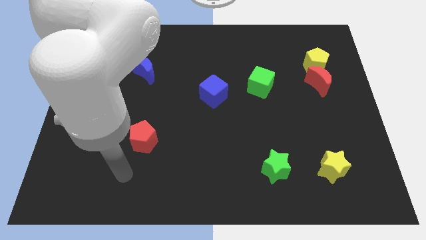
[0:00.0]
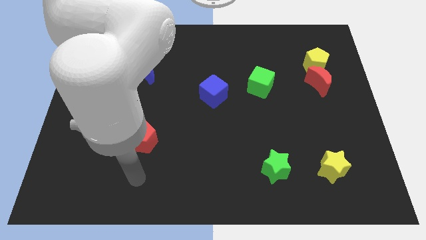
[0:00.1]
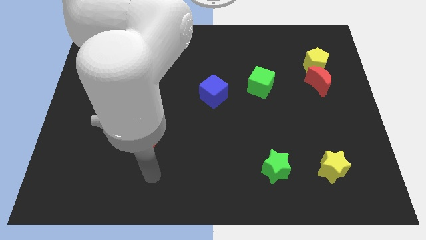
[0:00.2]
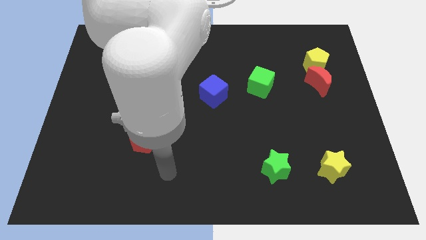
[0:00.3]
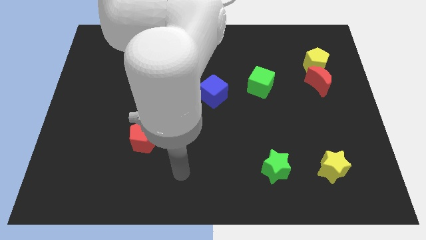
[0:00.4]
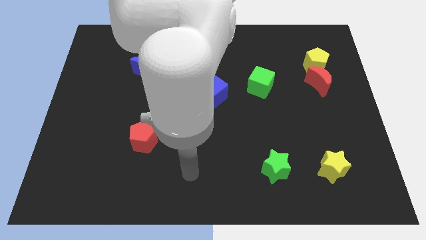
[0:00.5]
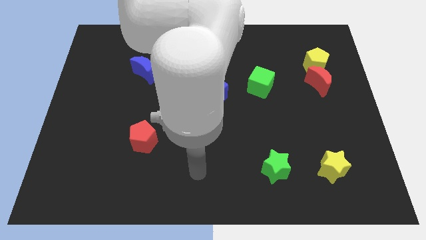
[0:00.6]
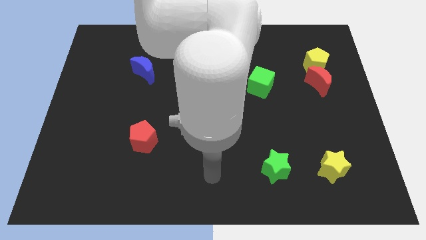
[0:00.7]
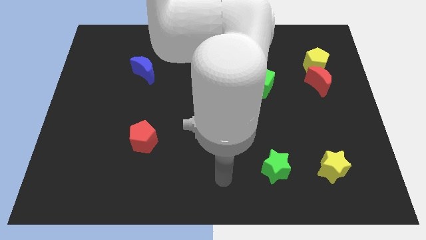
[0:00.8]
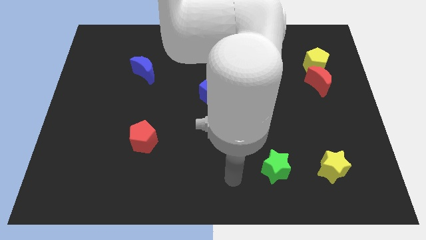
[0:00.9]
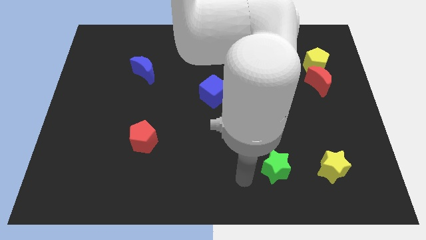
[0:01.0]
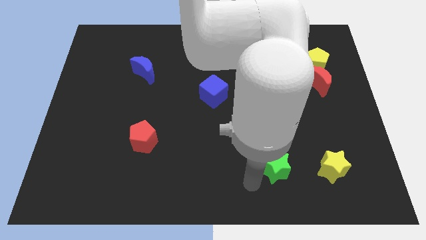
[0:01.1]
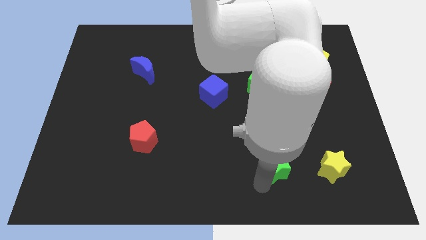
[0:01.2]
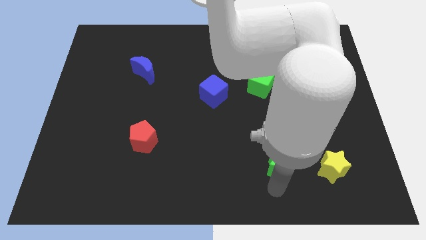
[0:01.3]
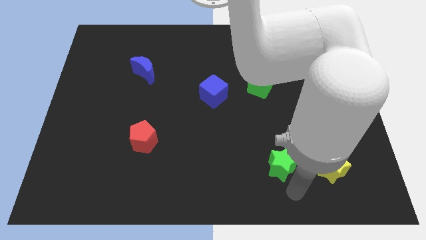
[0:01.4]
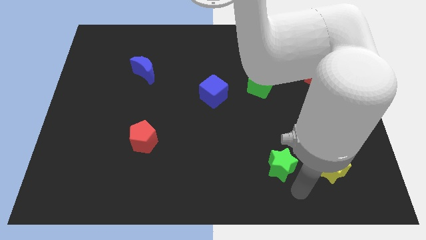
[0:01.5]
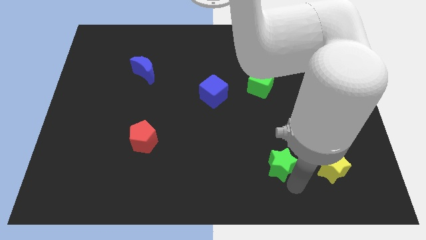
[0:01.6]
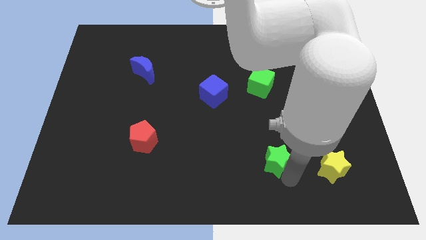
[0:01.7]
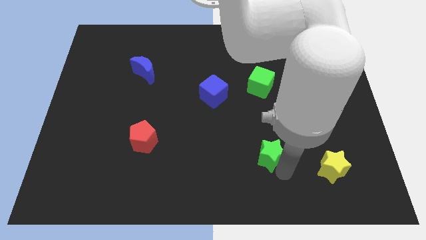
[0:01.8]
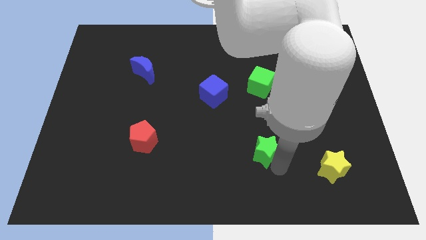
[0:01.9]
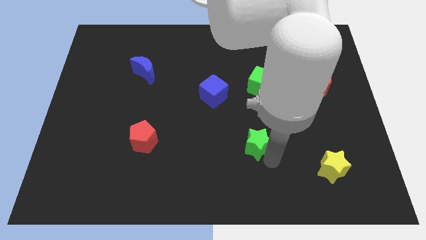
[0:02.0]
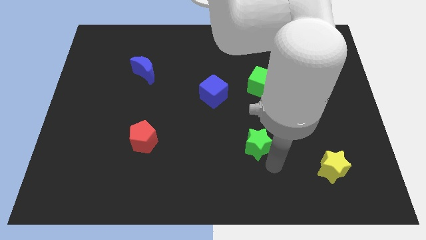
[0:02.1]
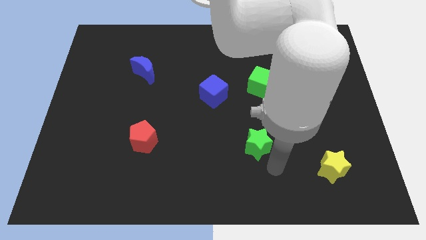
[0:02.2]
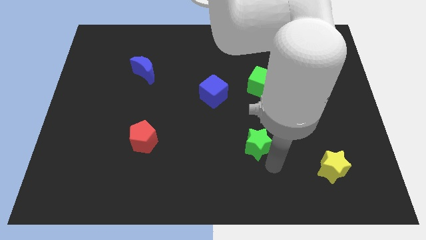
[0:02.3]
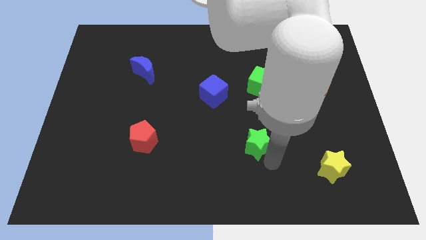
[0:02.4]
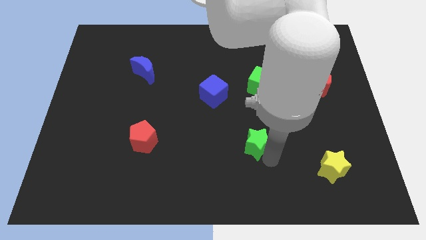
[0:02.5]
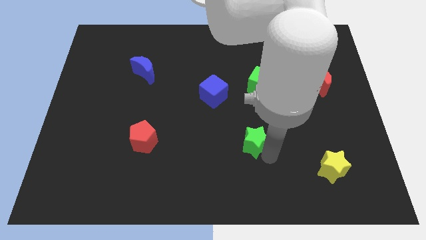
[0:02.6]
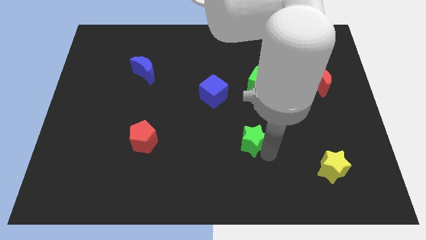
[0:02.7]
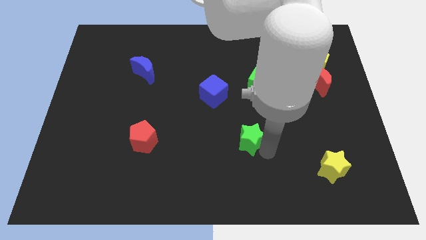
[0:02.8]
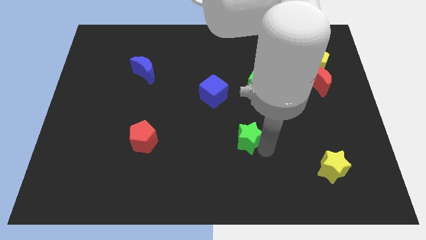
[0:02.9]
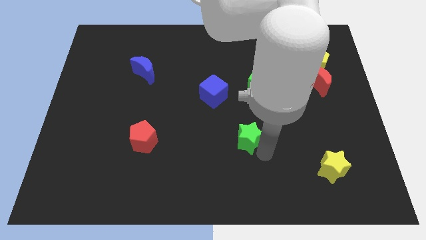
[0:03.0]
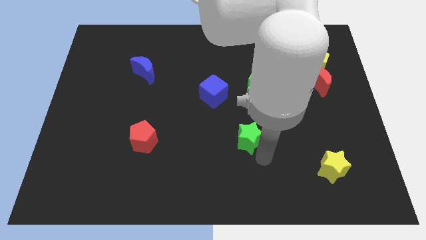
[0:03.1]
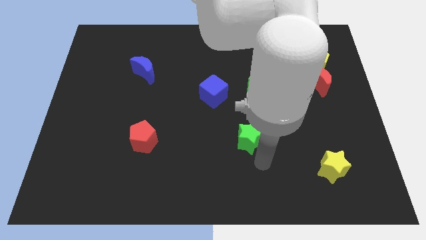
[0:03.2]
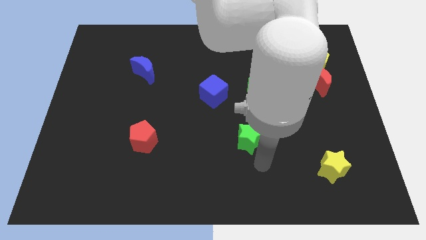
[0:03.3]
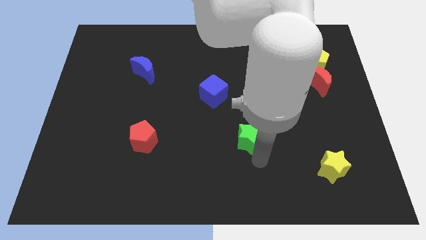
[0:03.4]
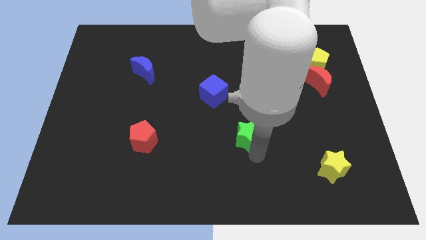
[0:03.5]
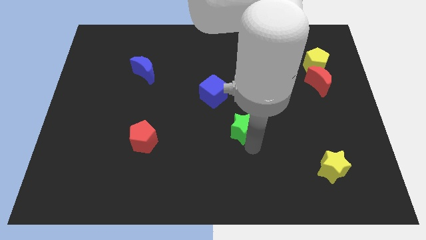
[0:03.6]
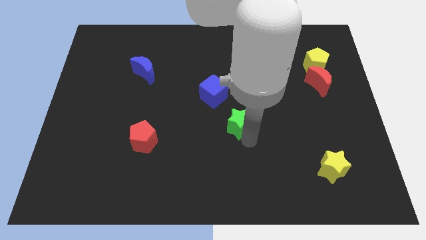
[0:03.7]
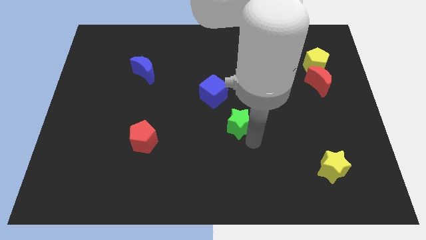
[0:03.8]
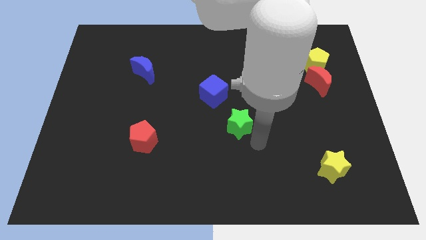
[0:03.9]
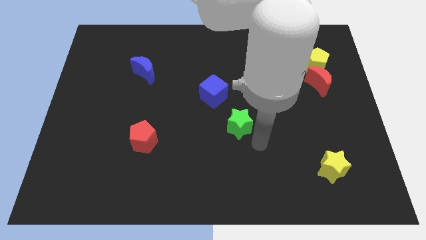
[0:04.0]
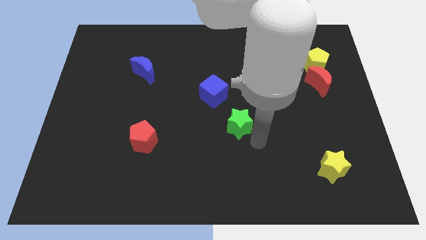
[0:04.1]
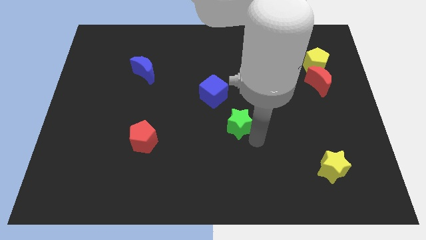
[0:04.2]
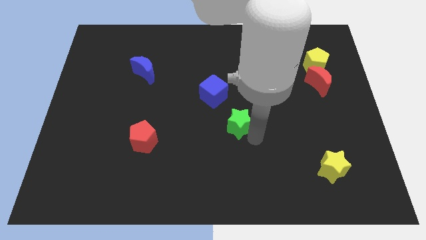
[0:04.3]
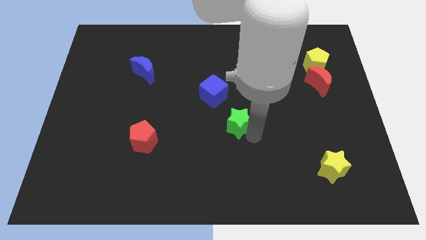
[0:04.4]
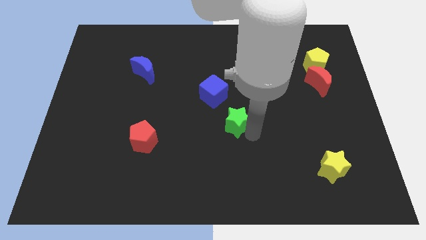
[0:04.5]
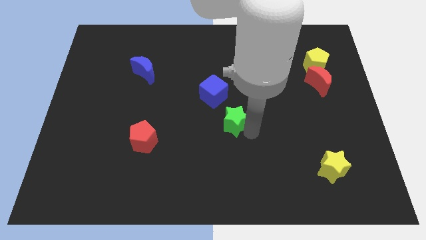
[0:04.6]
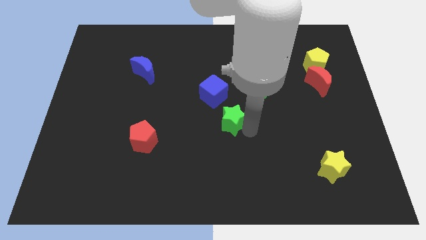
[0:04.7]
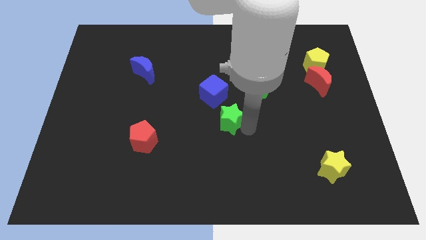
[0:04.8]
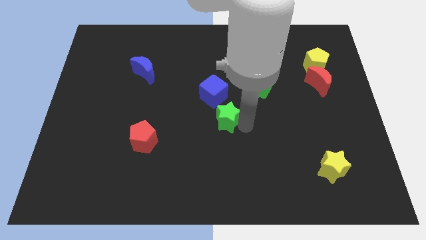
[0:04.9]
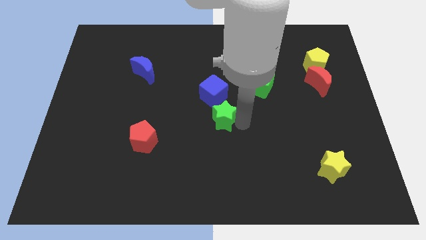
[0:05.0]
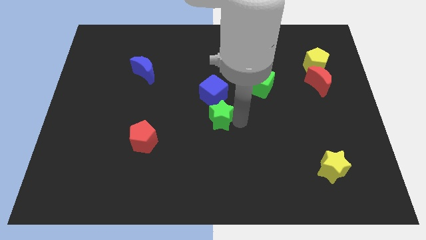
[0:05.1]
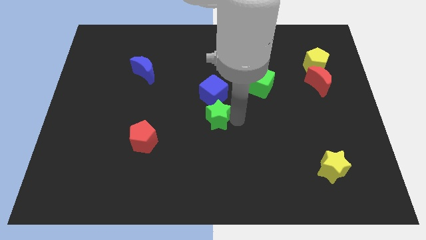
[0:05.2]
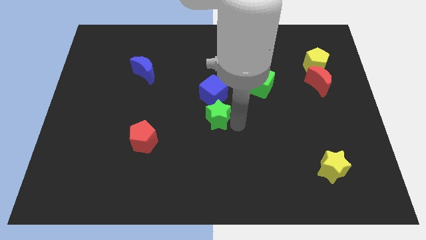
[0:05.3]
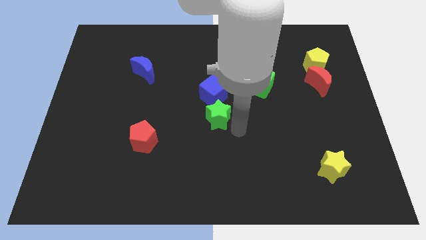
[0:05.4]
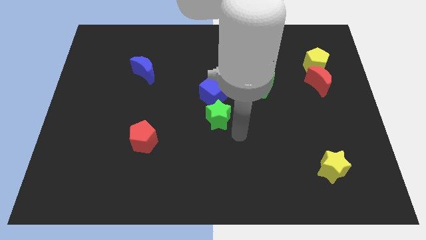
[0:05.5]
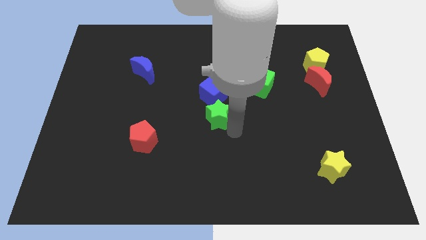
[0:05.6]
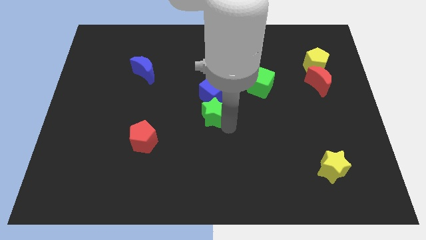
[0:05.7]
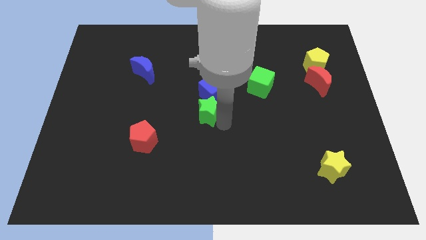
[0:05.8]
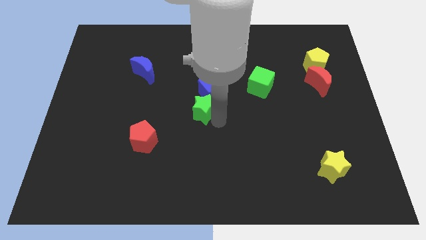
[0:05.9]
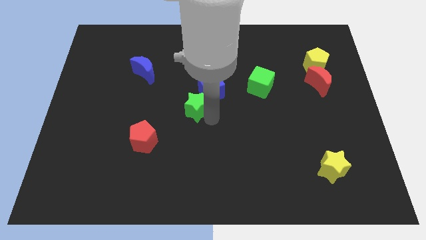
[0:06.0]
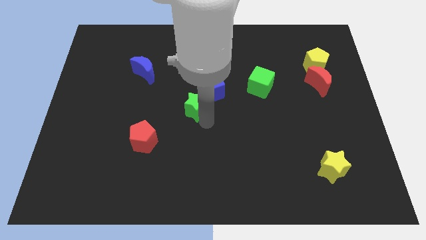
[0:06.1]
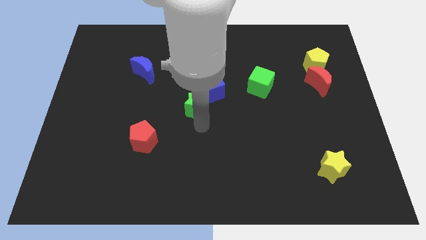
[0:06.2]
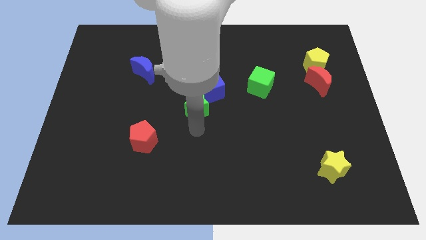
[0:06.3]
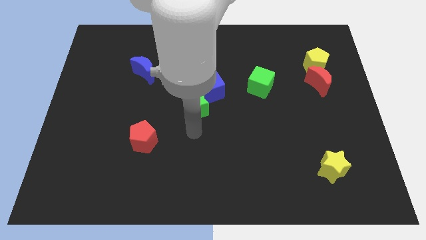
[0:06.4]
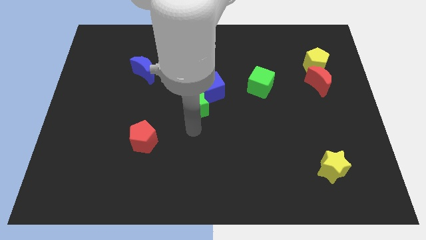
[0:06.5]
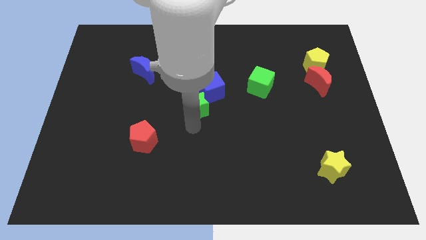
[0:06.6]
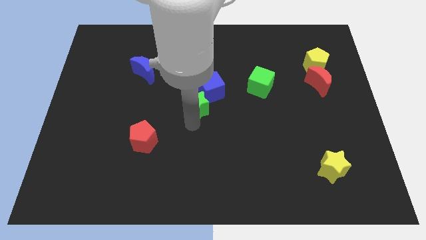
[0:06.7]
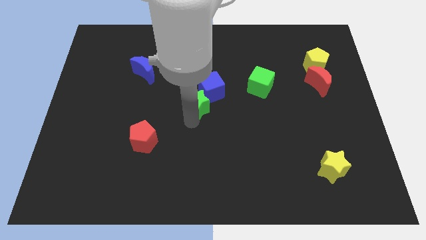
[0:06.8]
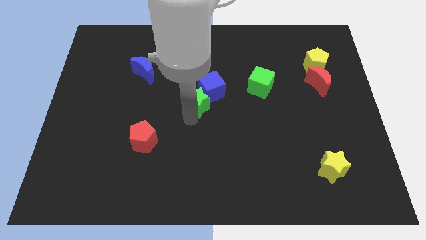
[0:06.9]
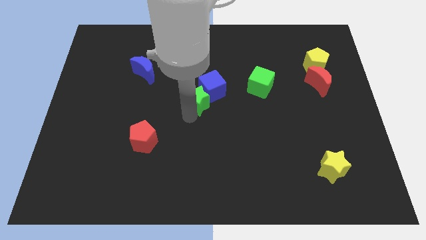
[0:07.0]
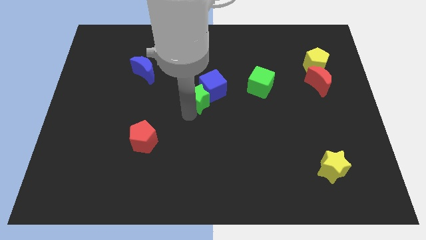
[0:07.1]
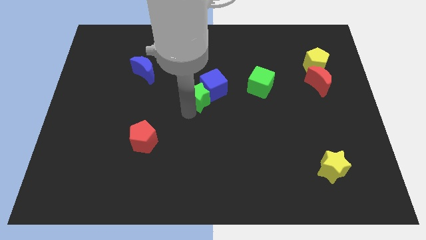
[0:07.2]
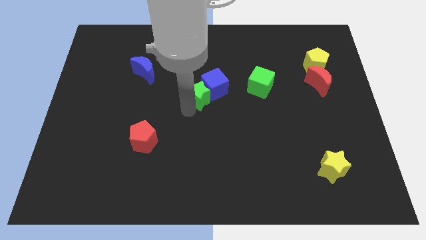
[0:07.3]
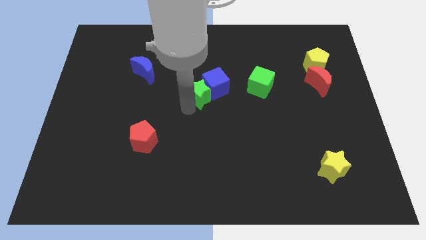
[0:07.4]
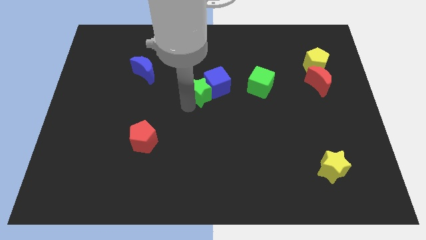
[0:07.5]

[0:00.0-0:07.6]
slide the green star just left of the green cube

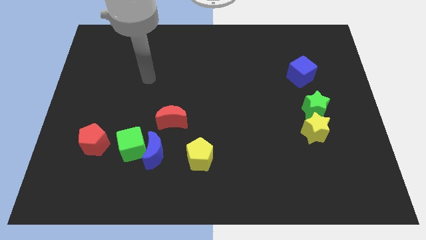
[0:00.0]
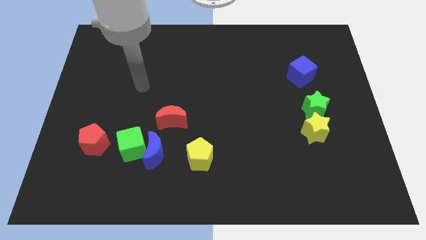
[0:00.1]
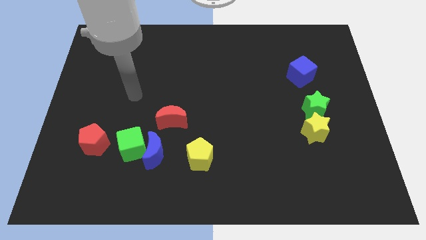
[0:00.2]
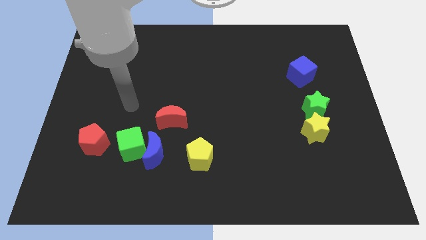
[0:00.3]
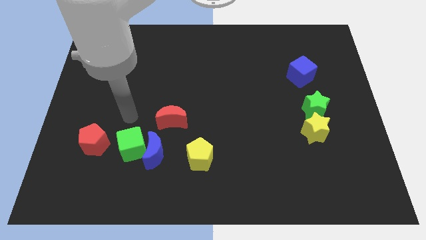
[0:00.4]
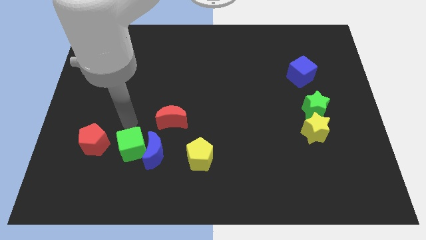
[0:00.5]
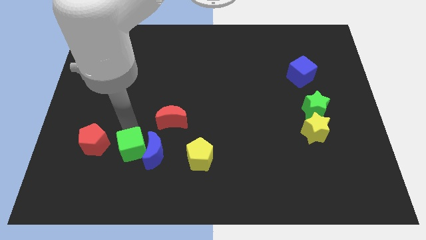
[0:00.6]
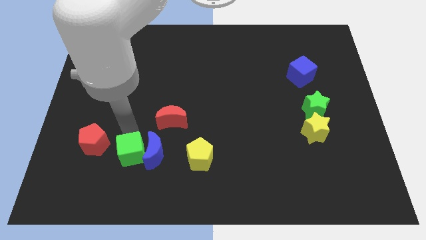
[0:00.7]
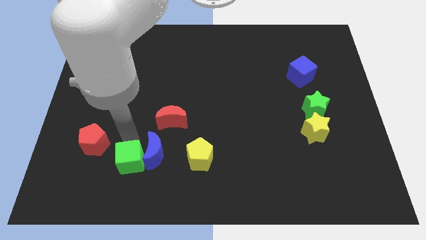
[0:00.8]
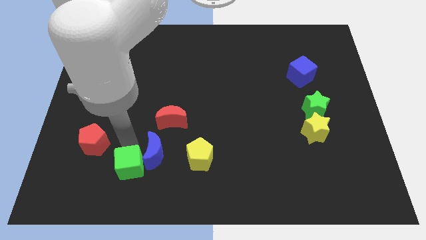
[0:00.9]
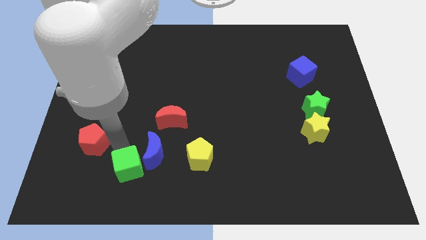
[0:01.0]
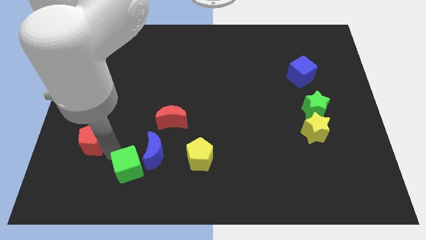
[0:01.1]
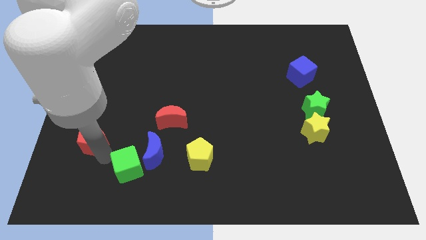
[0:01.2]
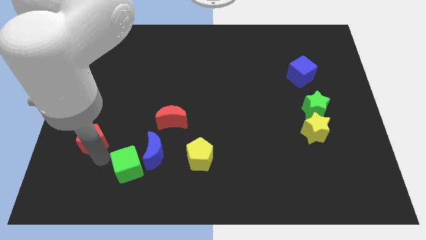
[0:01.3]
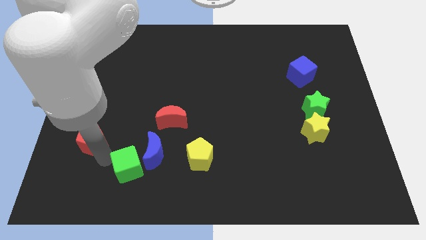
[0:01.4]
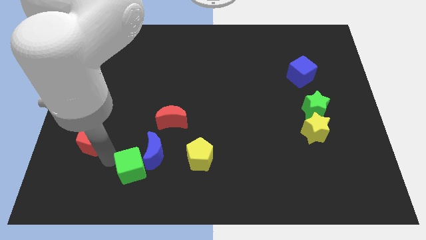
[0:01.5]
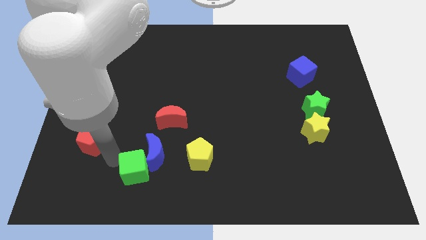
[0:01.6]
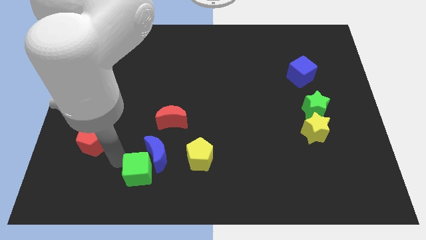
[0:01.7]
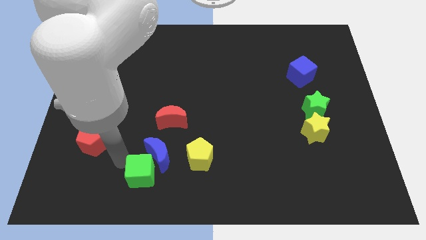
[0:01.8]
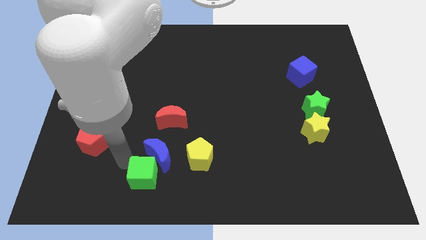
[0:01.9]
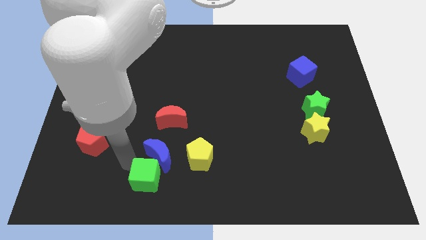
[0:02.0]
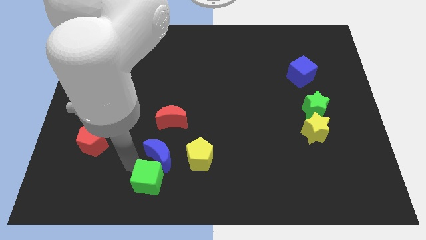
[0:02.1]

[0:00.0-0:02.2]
push the green cube to the bottom left of the yellow pentagon
